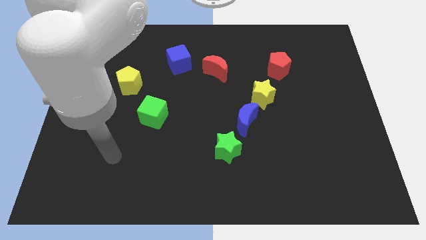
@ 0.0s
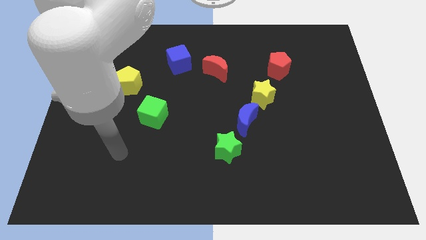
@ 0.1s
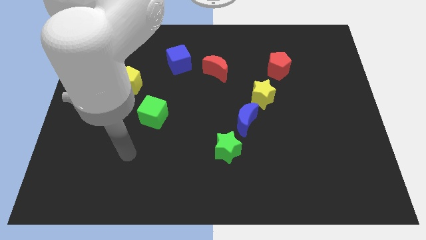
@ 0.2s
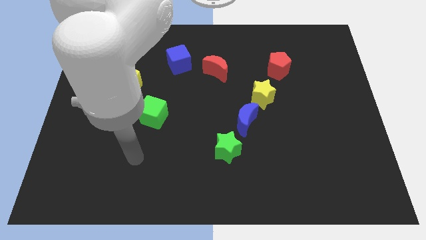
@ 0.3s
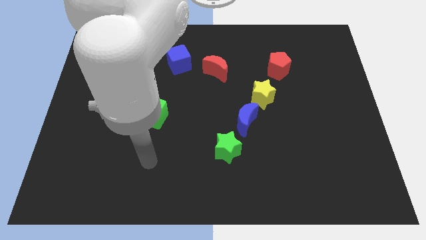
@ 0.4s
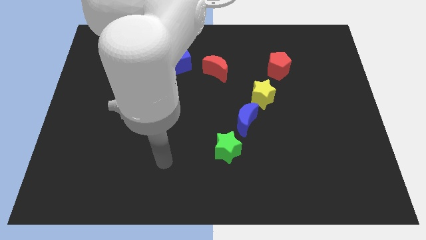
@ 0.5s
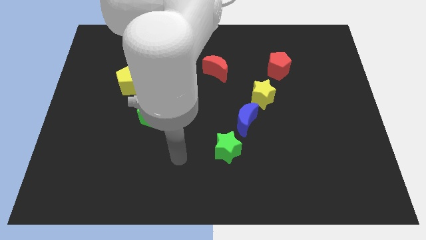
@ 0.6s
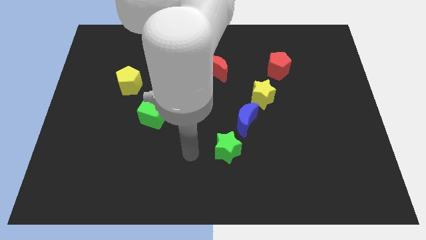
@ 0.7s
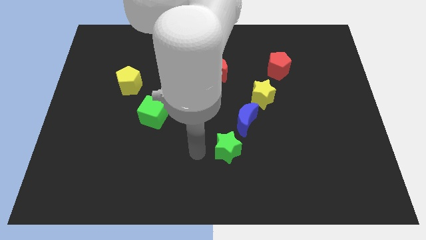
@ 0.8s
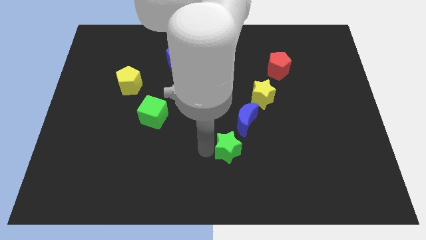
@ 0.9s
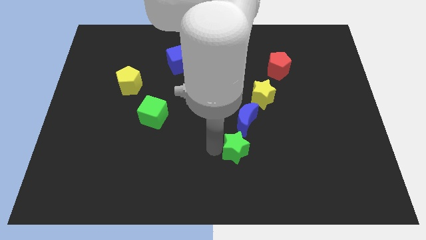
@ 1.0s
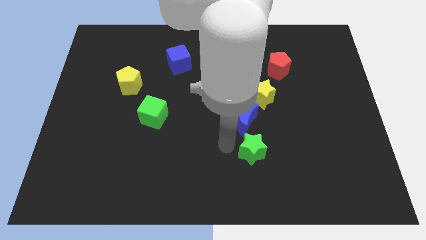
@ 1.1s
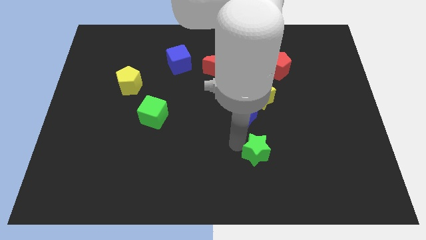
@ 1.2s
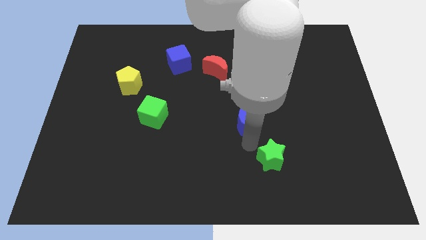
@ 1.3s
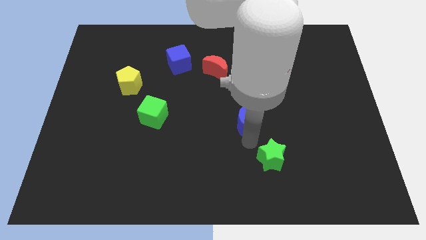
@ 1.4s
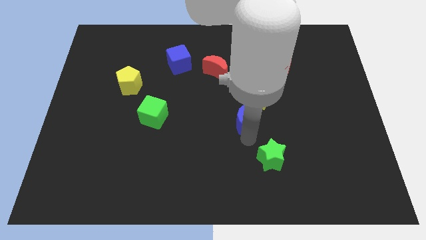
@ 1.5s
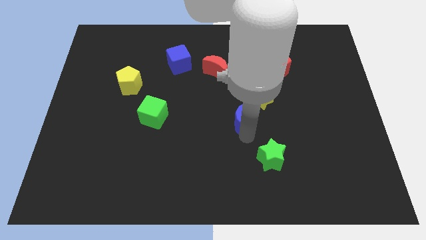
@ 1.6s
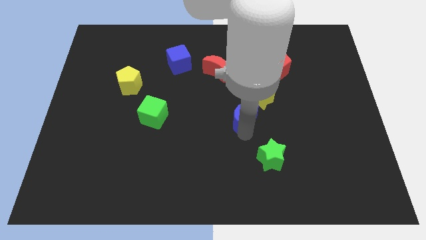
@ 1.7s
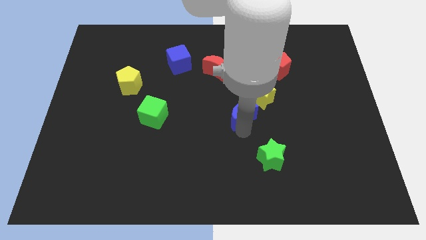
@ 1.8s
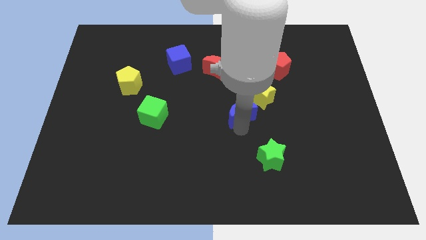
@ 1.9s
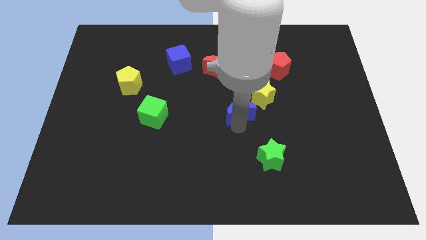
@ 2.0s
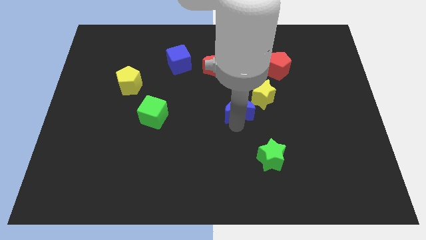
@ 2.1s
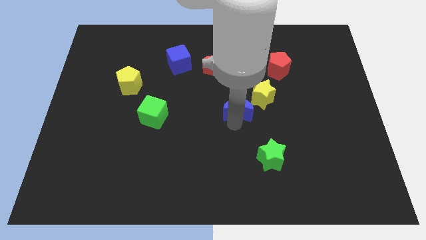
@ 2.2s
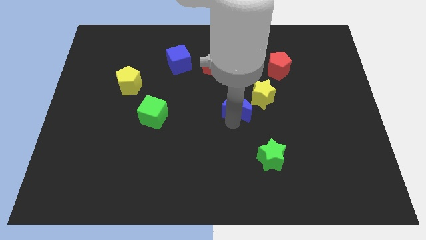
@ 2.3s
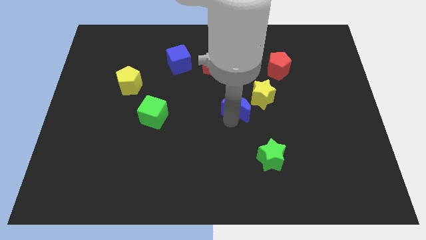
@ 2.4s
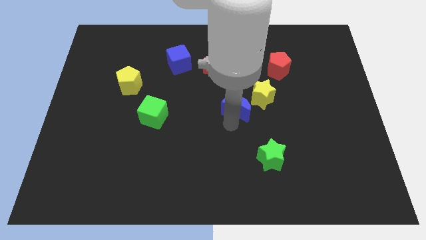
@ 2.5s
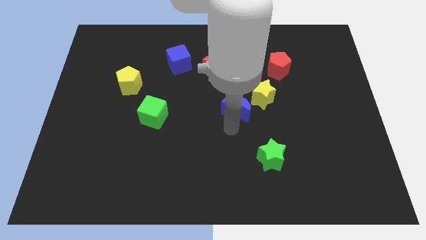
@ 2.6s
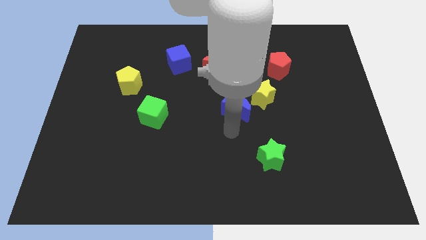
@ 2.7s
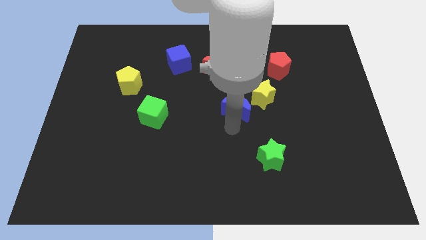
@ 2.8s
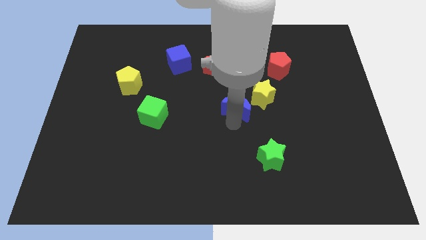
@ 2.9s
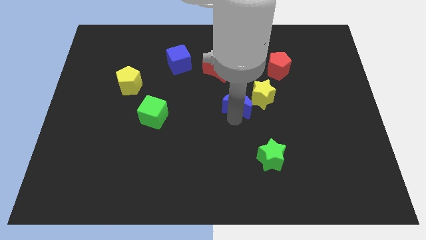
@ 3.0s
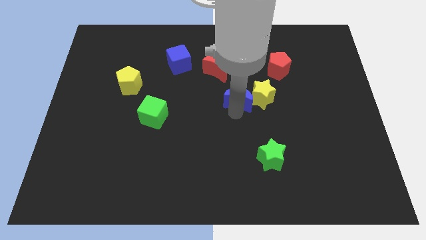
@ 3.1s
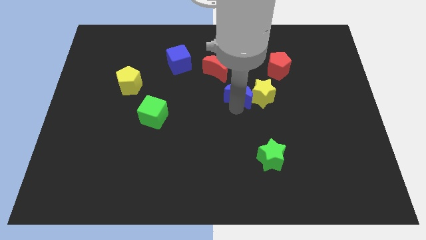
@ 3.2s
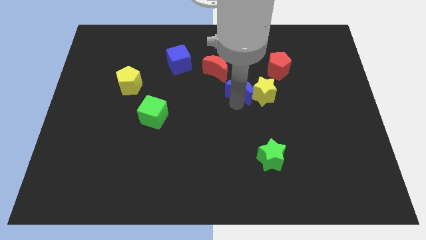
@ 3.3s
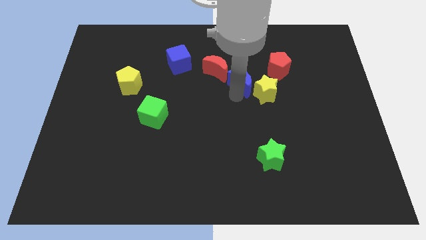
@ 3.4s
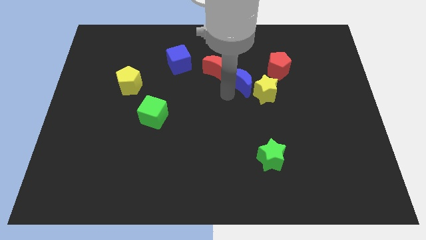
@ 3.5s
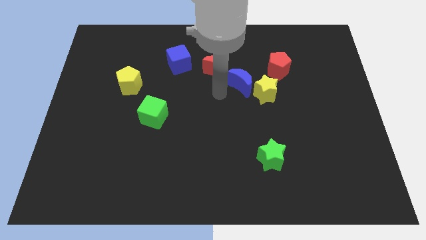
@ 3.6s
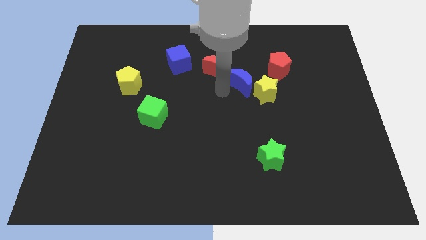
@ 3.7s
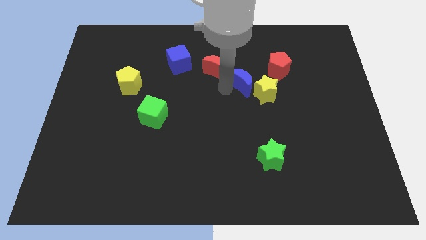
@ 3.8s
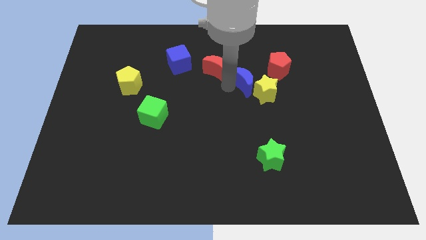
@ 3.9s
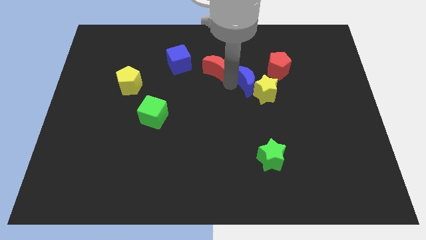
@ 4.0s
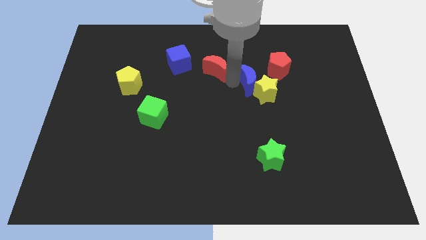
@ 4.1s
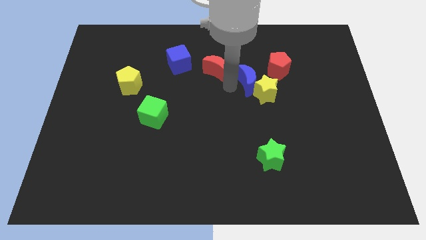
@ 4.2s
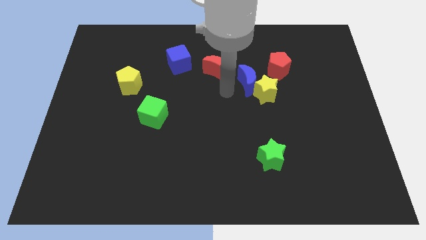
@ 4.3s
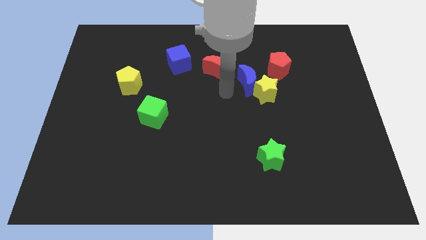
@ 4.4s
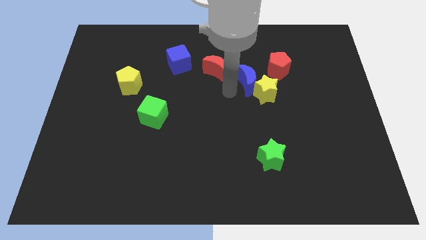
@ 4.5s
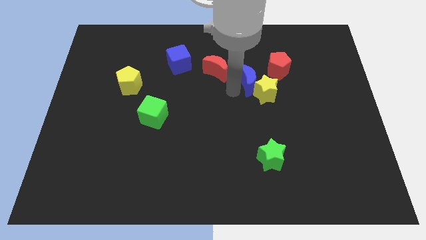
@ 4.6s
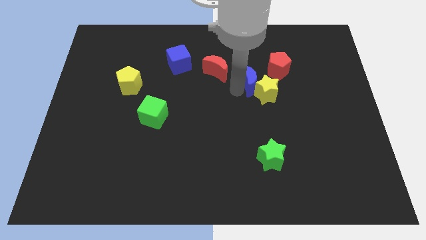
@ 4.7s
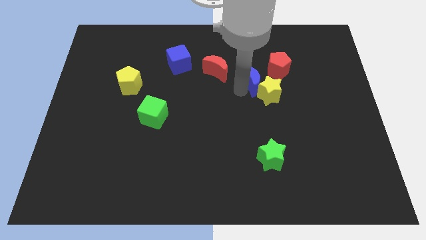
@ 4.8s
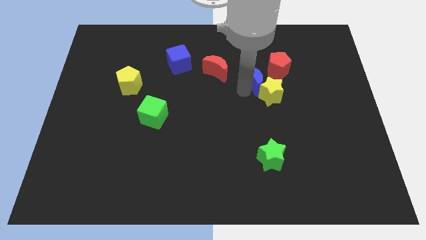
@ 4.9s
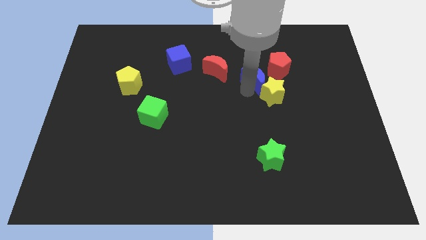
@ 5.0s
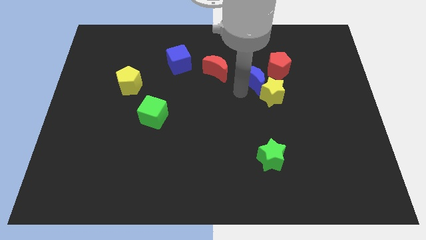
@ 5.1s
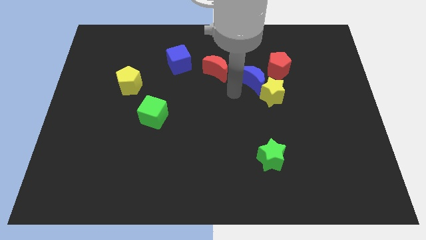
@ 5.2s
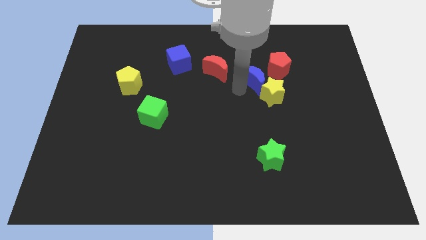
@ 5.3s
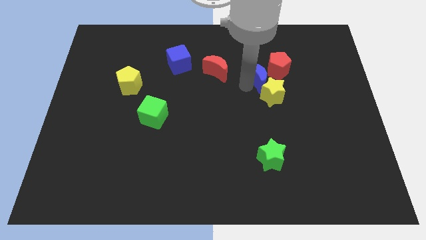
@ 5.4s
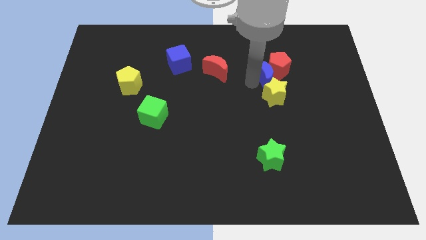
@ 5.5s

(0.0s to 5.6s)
put the blue moon close to the red pentagon

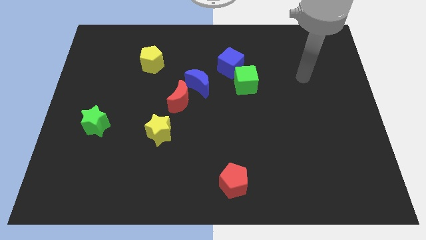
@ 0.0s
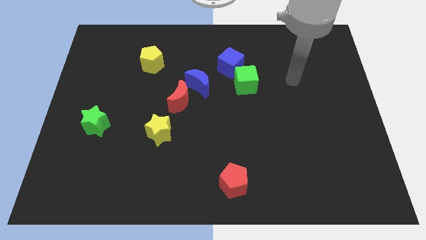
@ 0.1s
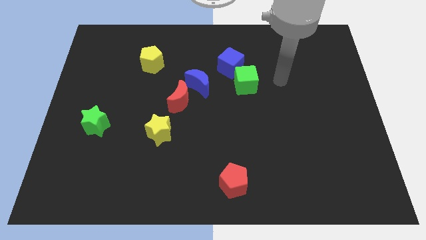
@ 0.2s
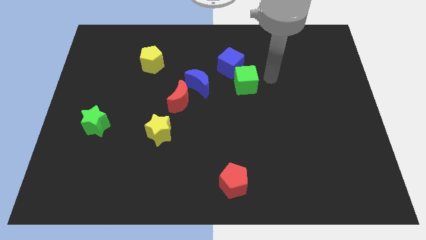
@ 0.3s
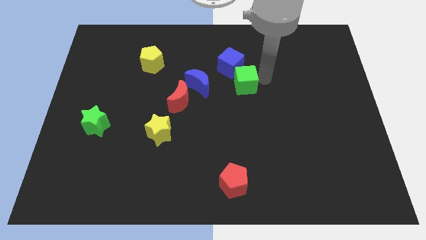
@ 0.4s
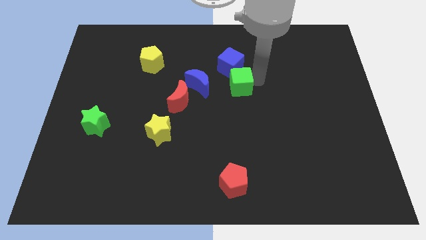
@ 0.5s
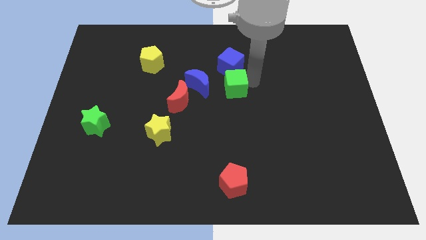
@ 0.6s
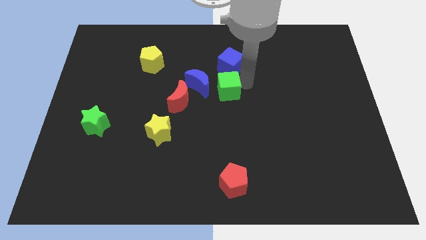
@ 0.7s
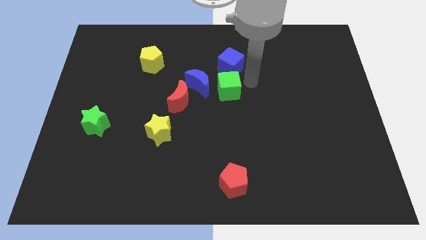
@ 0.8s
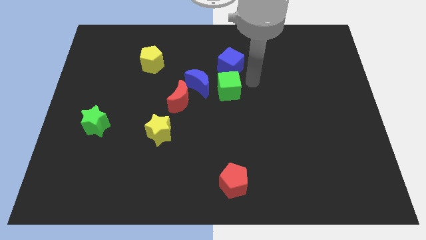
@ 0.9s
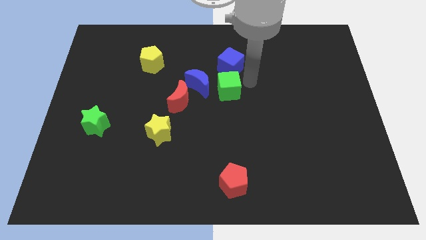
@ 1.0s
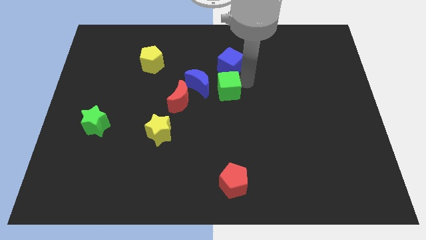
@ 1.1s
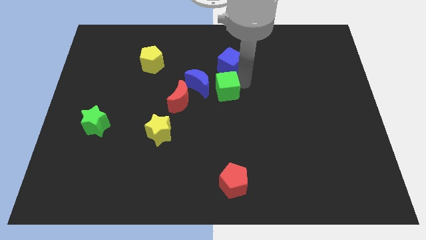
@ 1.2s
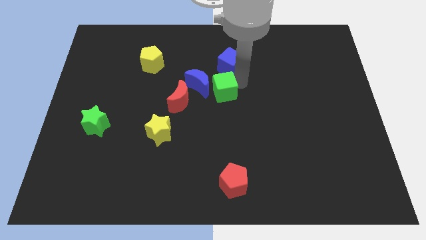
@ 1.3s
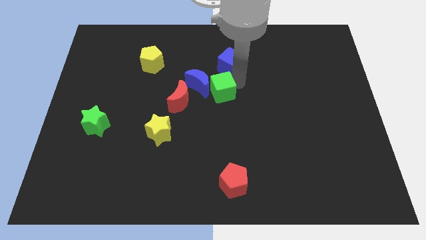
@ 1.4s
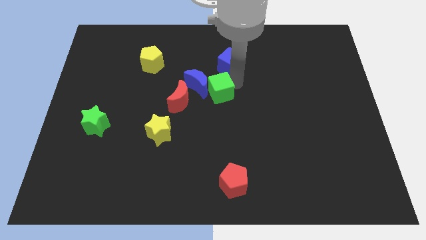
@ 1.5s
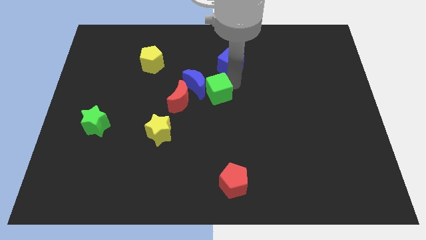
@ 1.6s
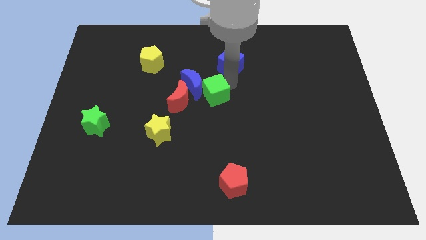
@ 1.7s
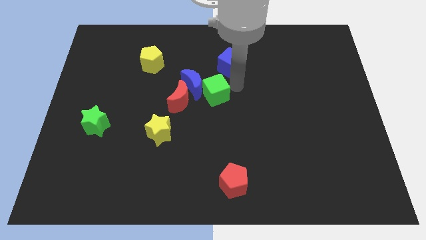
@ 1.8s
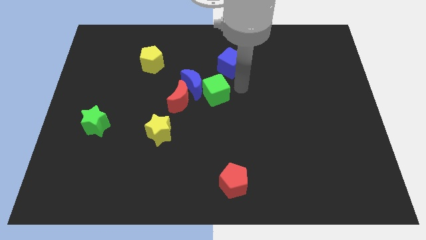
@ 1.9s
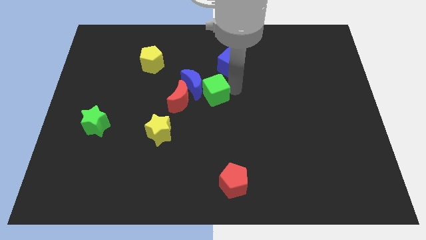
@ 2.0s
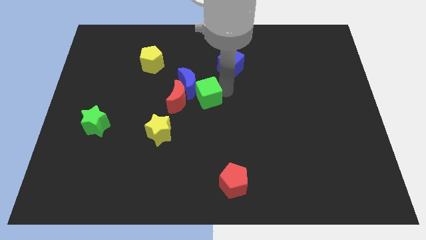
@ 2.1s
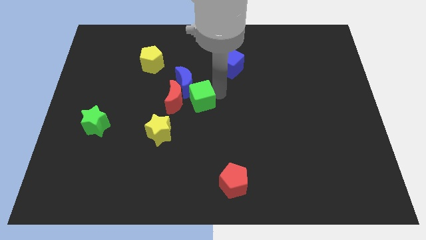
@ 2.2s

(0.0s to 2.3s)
move the green cube towards the red moon
